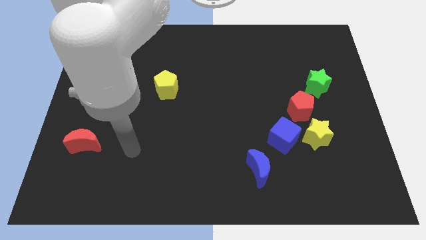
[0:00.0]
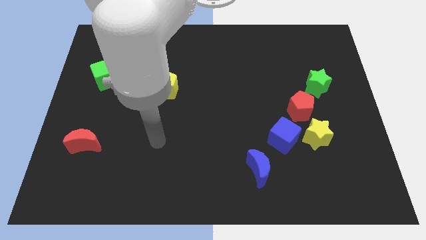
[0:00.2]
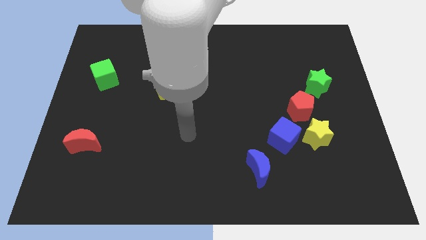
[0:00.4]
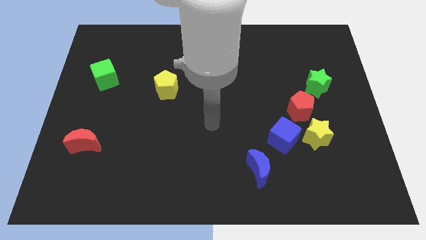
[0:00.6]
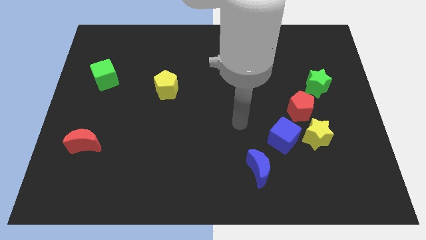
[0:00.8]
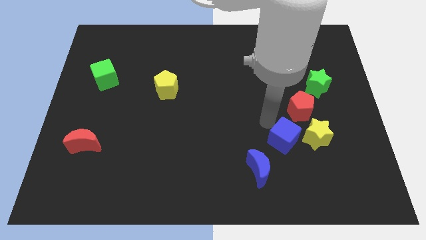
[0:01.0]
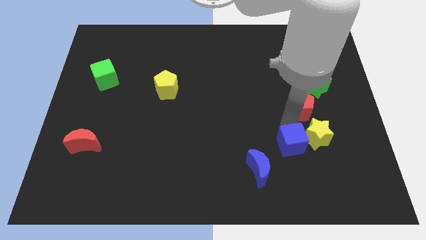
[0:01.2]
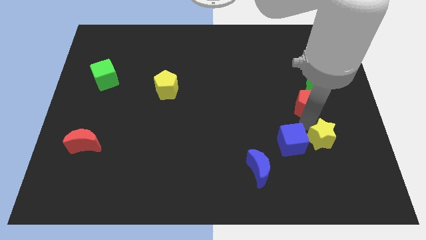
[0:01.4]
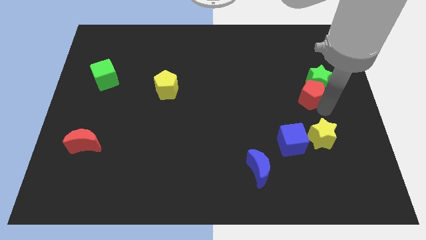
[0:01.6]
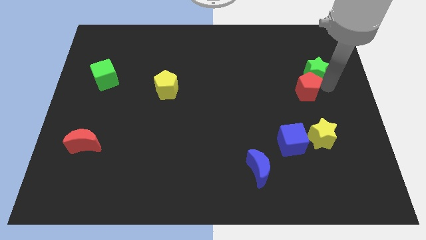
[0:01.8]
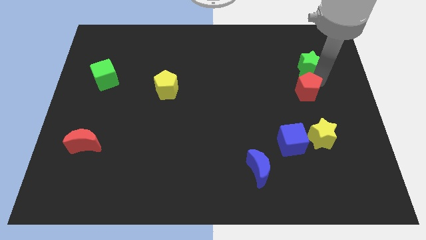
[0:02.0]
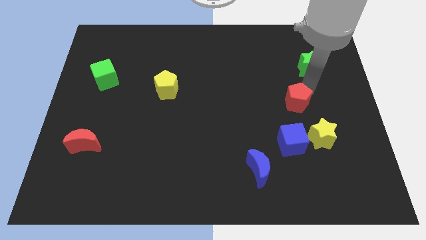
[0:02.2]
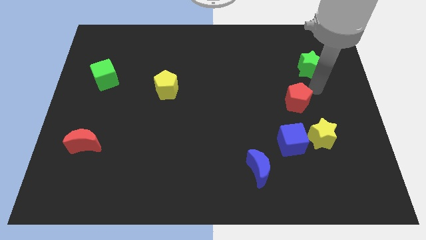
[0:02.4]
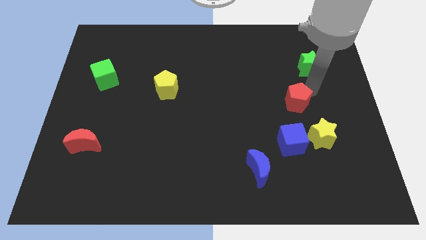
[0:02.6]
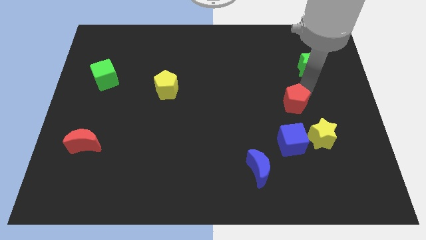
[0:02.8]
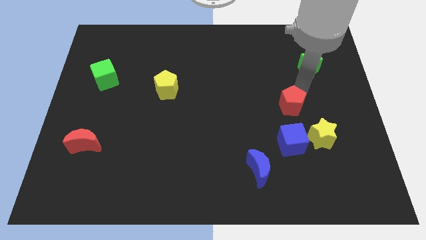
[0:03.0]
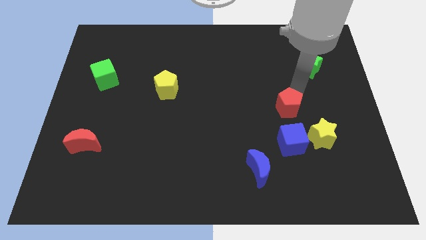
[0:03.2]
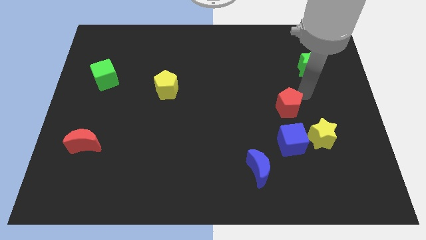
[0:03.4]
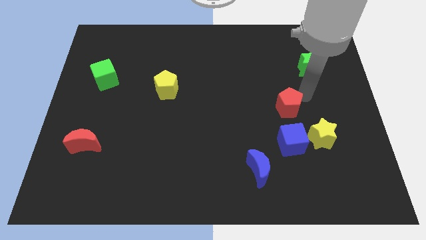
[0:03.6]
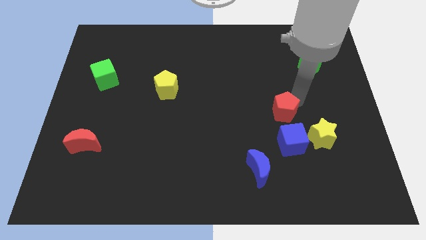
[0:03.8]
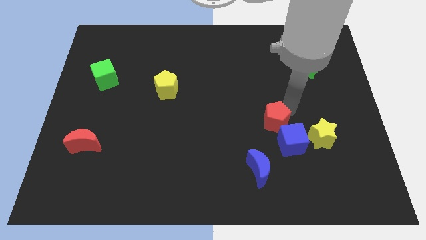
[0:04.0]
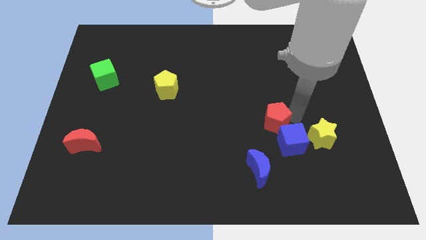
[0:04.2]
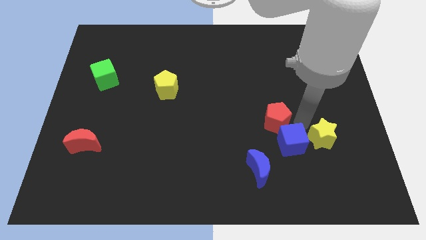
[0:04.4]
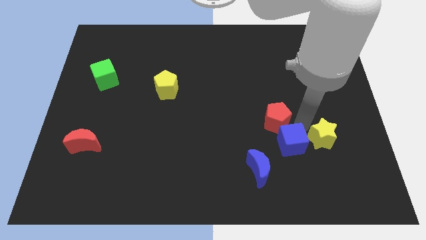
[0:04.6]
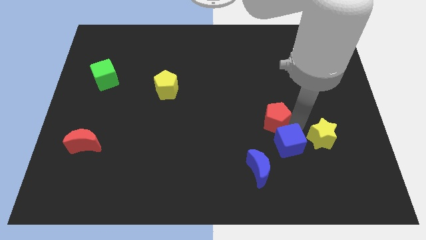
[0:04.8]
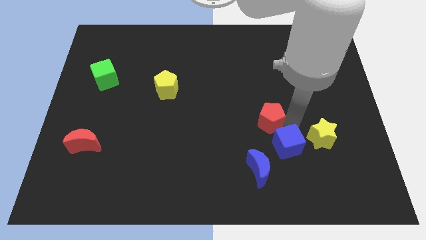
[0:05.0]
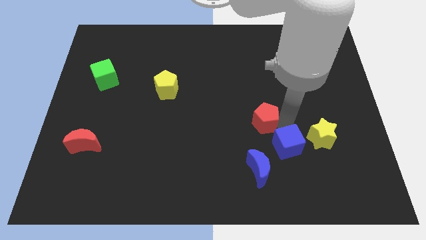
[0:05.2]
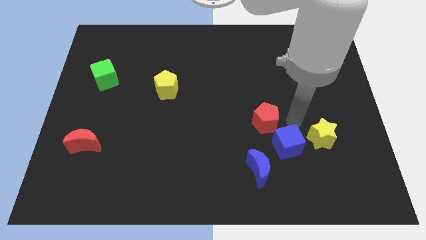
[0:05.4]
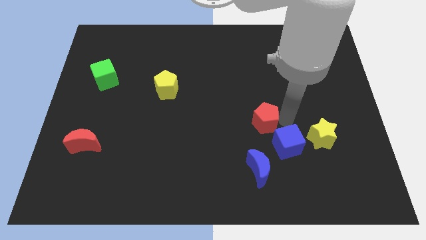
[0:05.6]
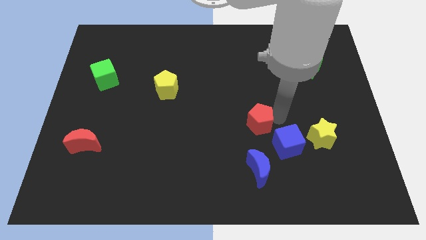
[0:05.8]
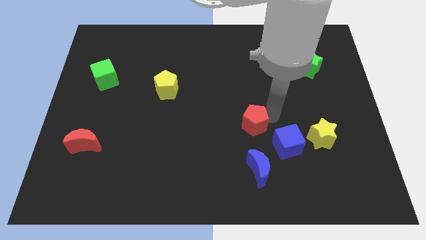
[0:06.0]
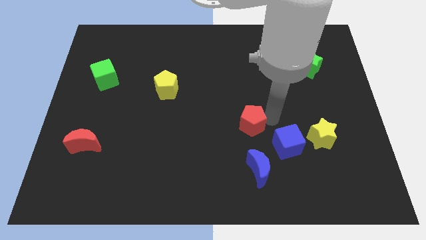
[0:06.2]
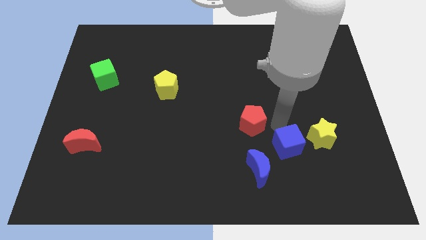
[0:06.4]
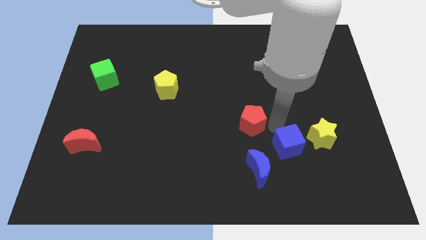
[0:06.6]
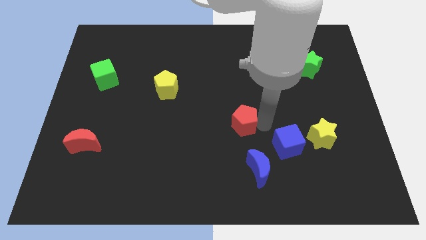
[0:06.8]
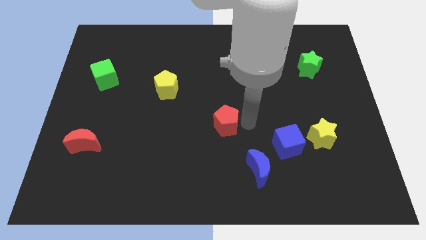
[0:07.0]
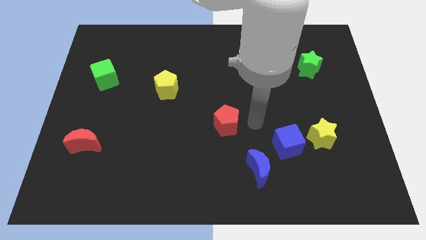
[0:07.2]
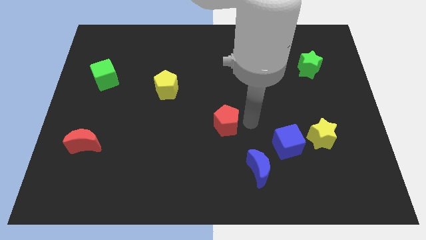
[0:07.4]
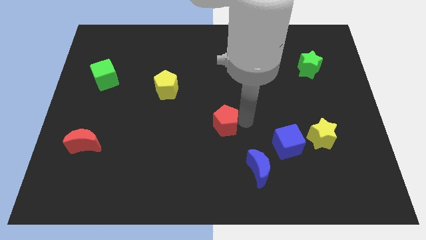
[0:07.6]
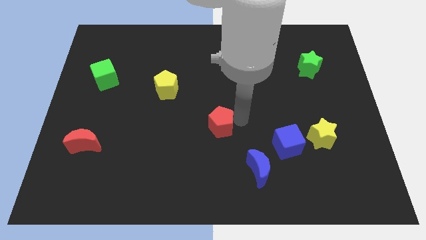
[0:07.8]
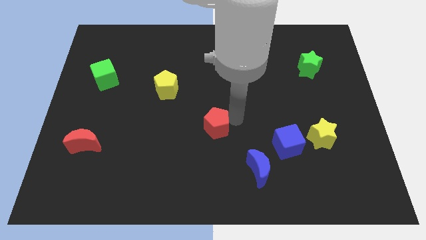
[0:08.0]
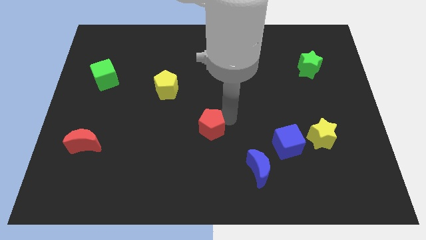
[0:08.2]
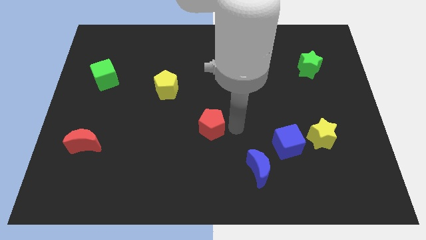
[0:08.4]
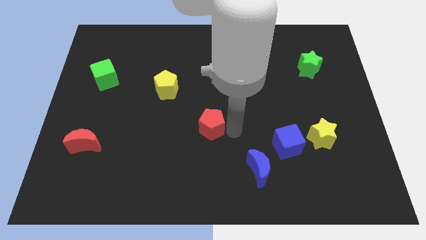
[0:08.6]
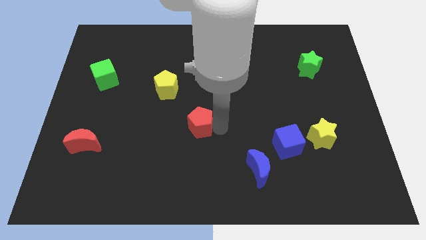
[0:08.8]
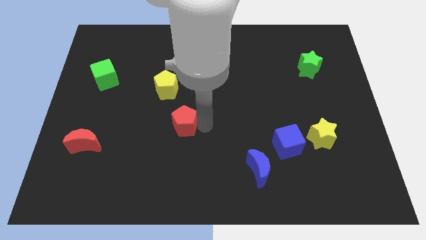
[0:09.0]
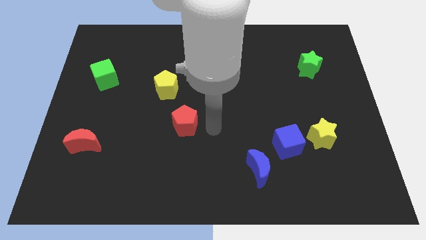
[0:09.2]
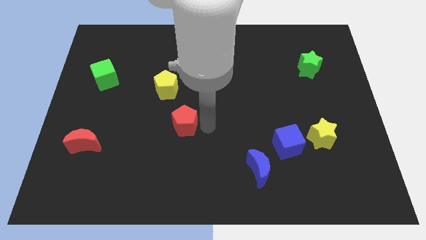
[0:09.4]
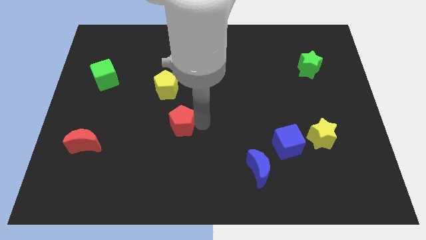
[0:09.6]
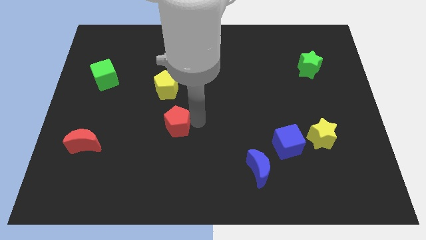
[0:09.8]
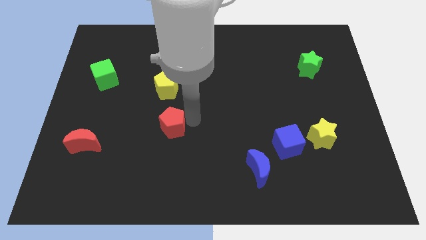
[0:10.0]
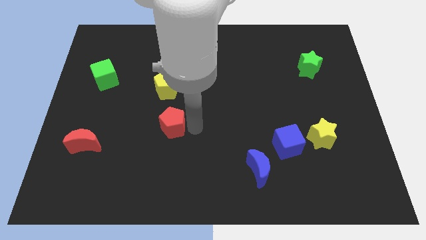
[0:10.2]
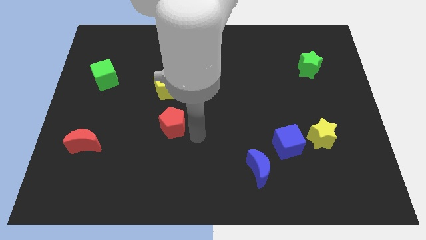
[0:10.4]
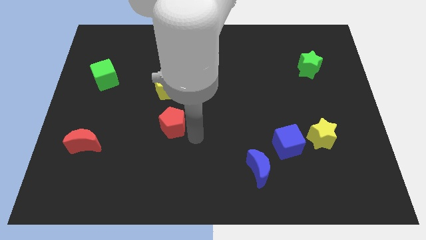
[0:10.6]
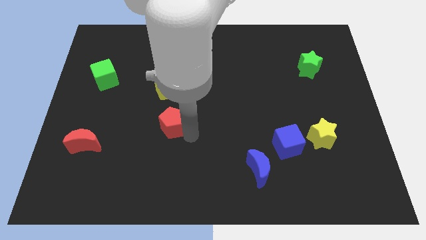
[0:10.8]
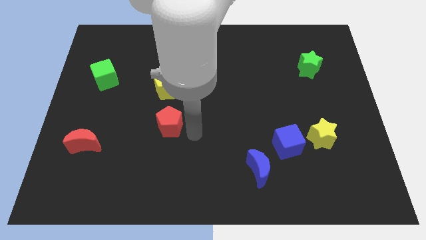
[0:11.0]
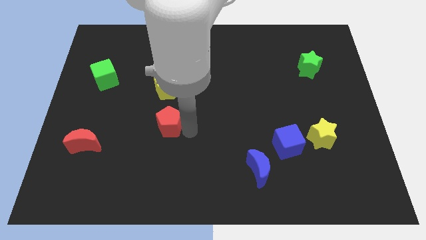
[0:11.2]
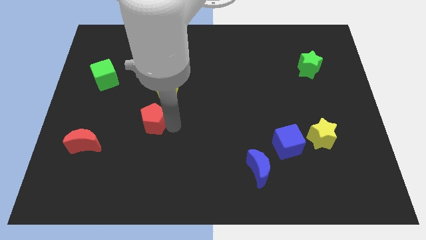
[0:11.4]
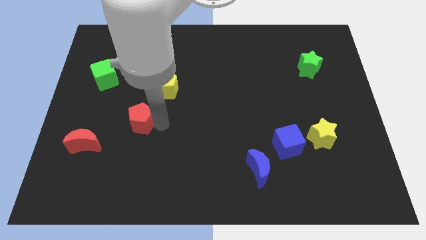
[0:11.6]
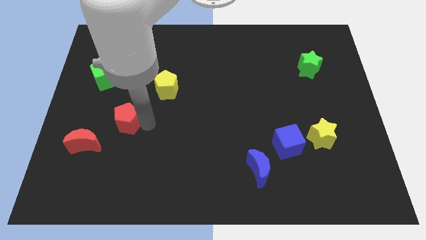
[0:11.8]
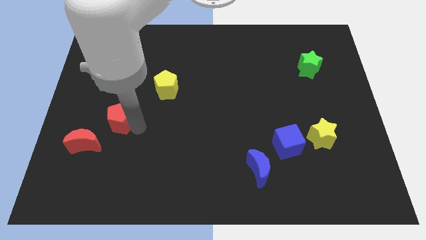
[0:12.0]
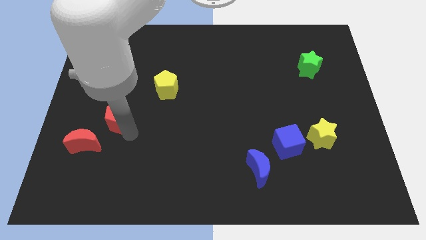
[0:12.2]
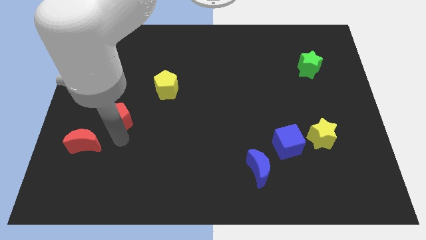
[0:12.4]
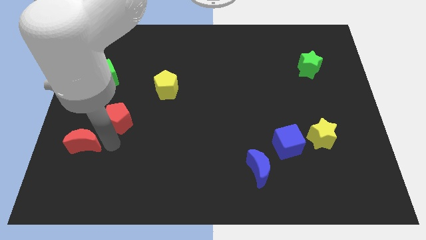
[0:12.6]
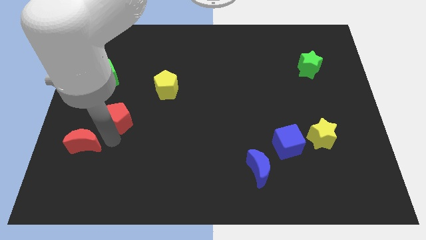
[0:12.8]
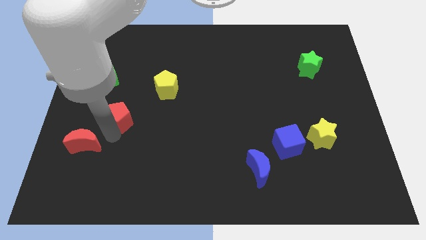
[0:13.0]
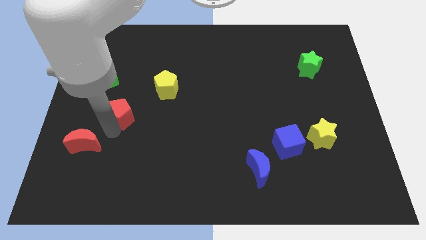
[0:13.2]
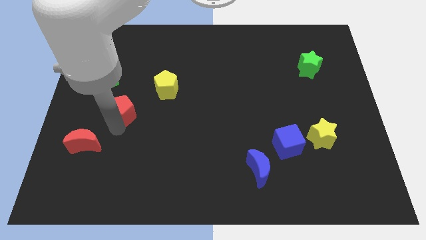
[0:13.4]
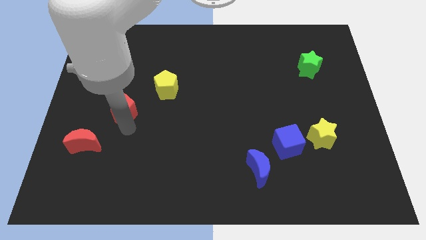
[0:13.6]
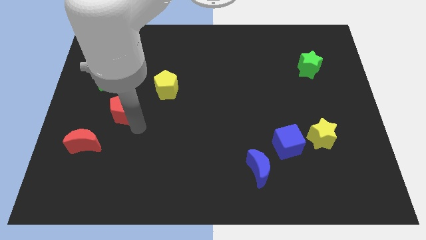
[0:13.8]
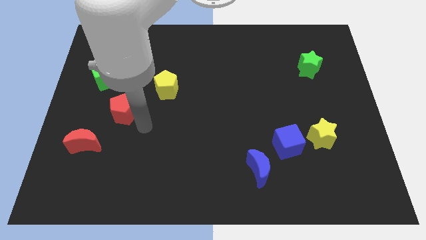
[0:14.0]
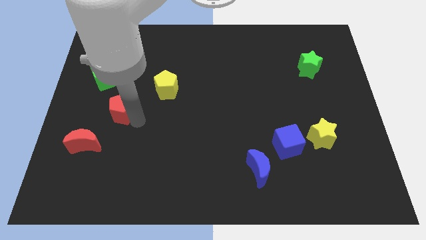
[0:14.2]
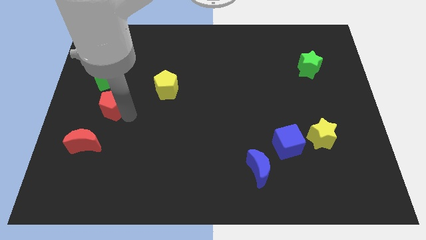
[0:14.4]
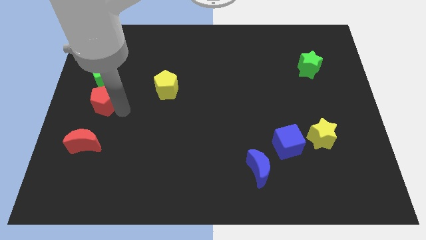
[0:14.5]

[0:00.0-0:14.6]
slide the red pentagon to the left side
